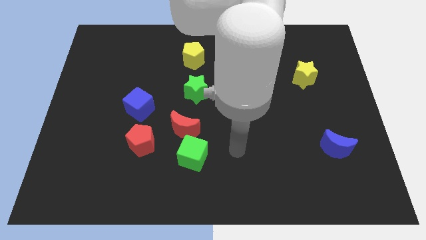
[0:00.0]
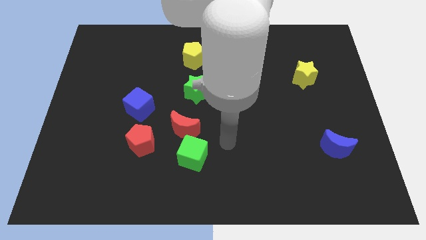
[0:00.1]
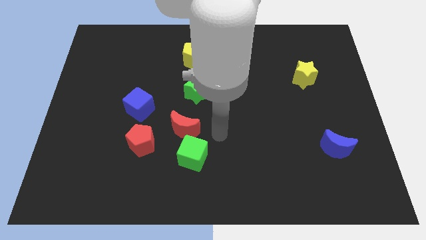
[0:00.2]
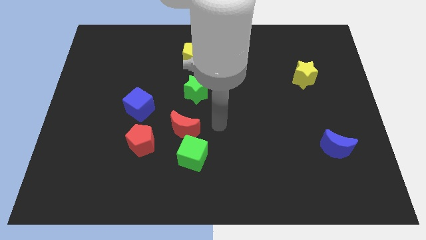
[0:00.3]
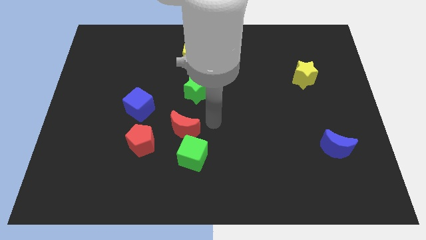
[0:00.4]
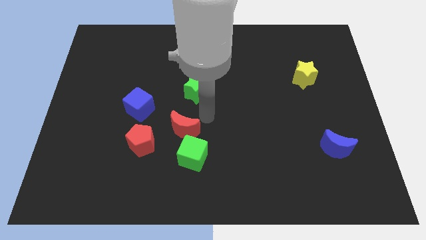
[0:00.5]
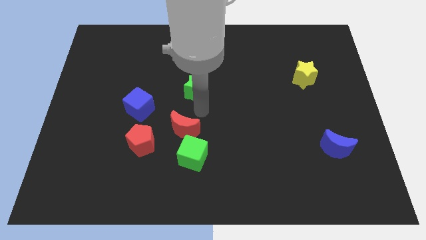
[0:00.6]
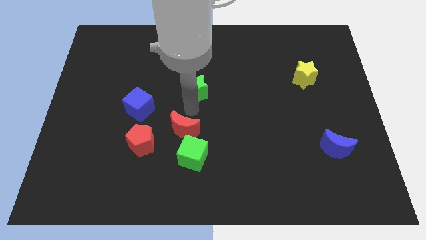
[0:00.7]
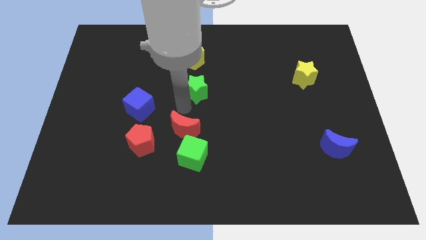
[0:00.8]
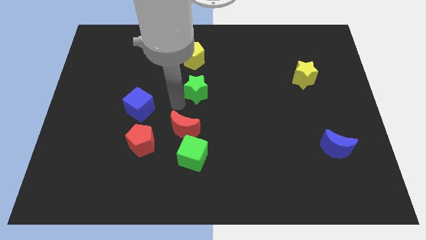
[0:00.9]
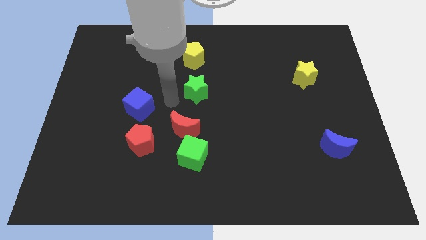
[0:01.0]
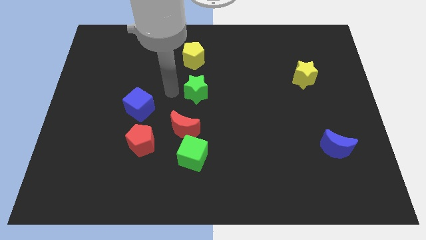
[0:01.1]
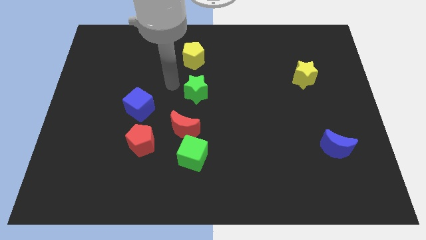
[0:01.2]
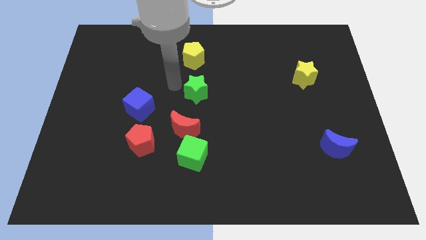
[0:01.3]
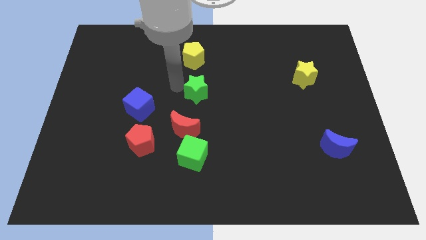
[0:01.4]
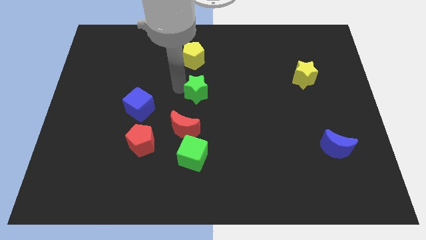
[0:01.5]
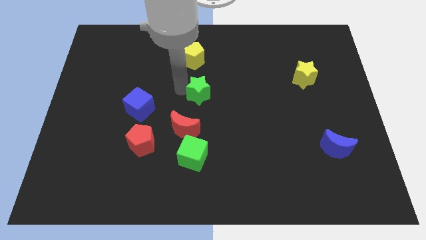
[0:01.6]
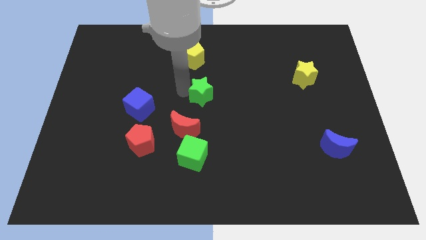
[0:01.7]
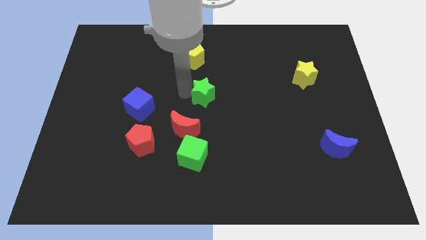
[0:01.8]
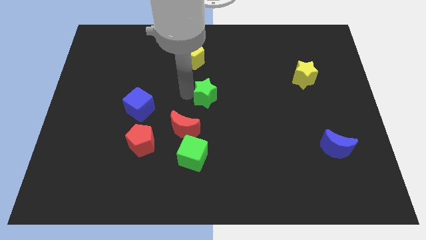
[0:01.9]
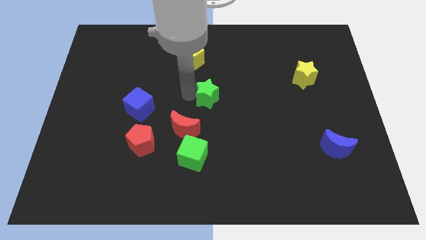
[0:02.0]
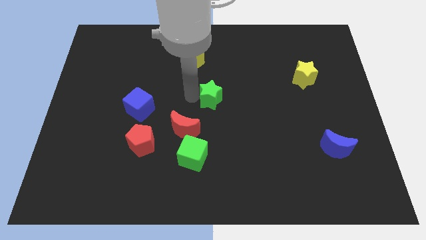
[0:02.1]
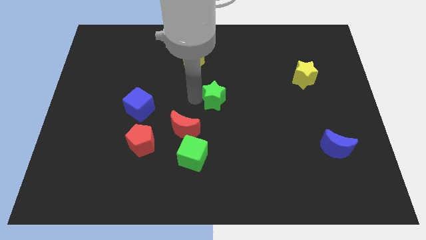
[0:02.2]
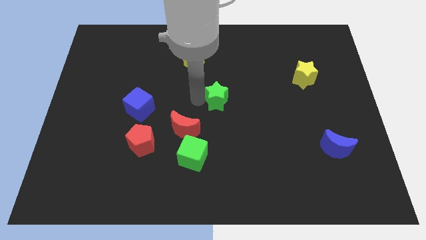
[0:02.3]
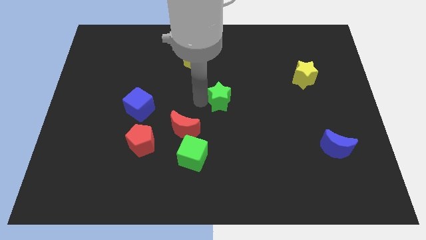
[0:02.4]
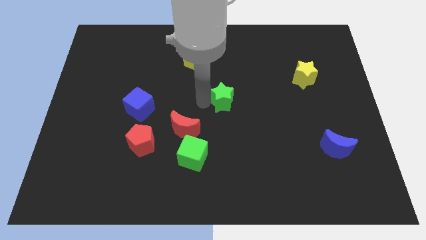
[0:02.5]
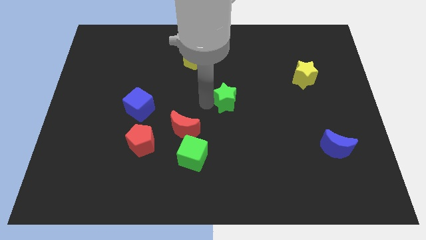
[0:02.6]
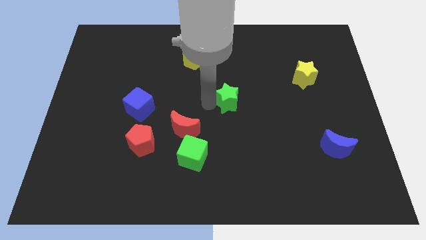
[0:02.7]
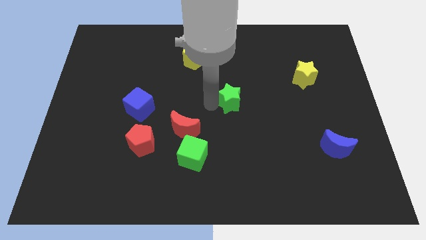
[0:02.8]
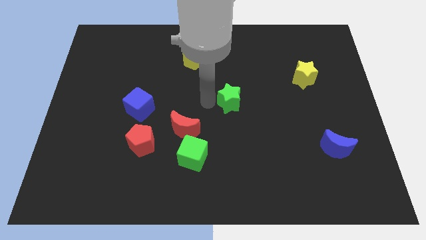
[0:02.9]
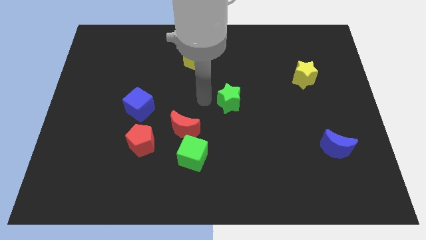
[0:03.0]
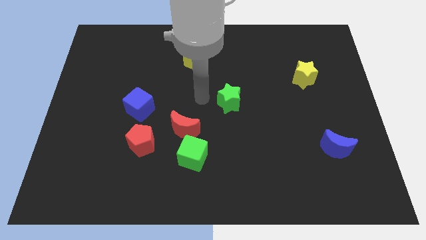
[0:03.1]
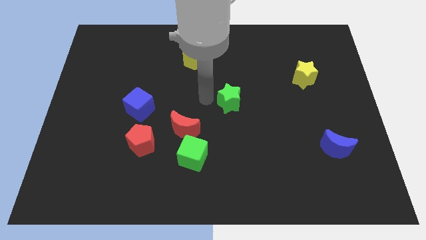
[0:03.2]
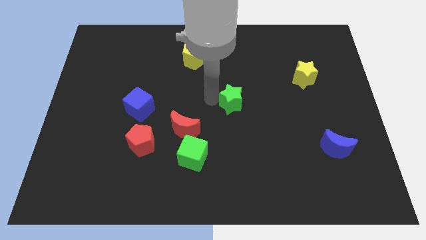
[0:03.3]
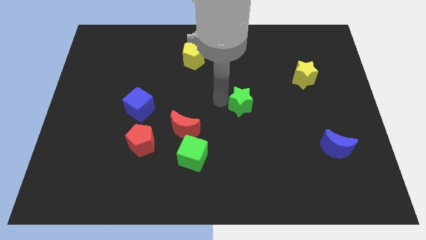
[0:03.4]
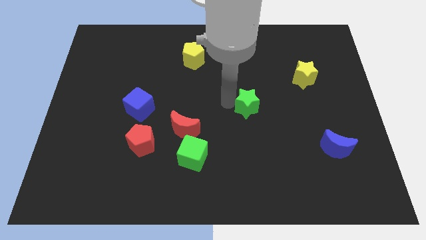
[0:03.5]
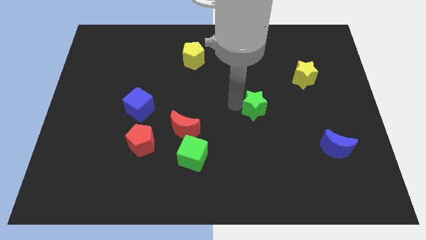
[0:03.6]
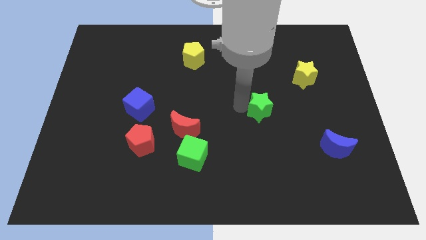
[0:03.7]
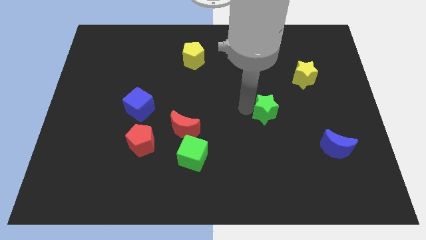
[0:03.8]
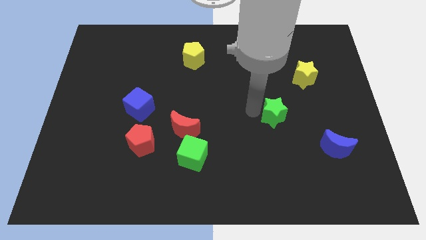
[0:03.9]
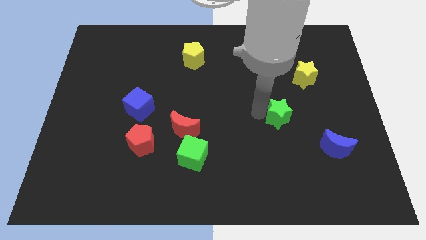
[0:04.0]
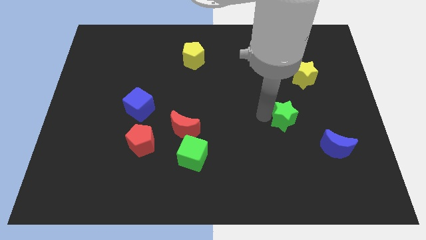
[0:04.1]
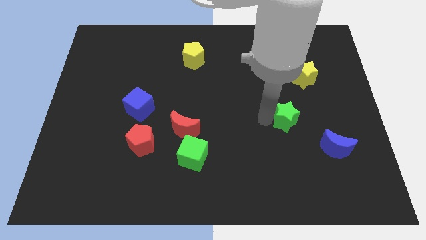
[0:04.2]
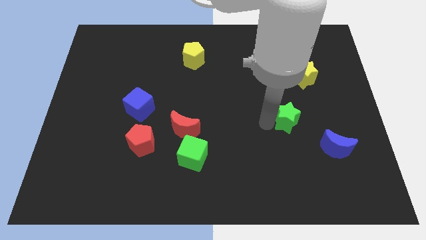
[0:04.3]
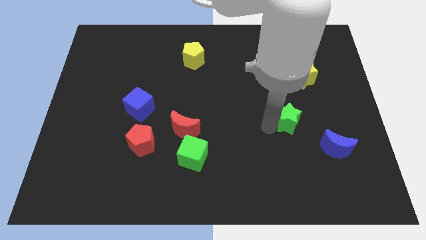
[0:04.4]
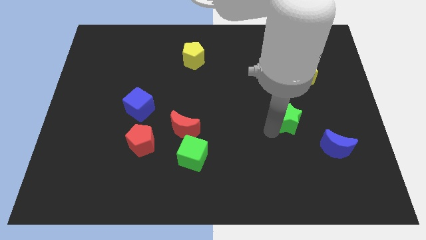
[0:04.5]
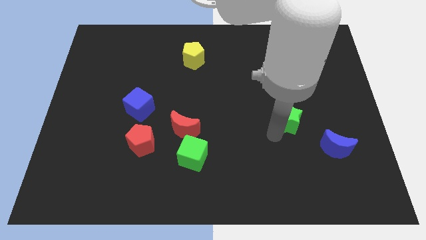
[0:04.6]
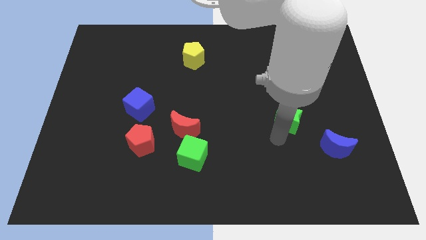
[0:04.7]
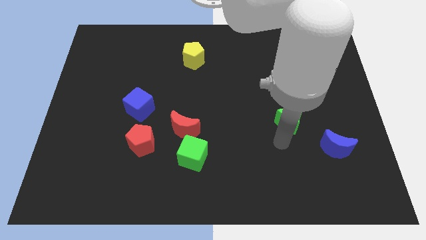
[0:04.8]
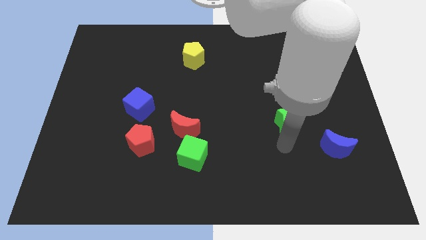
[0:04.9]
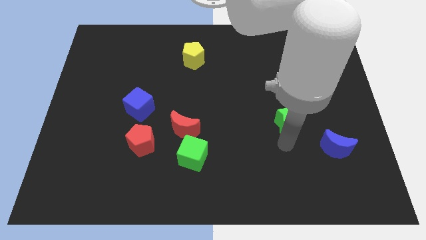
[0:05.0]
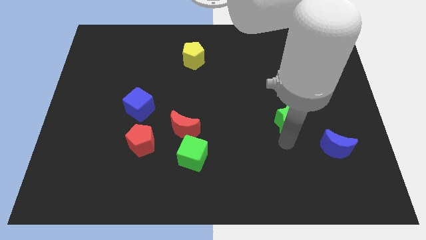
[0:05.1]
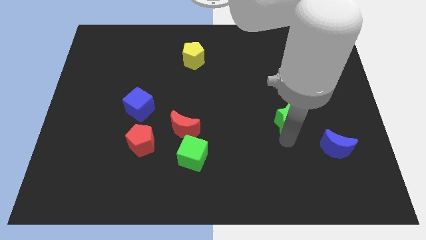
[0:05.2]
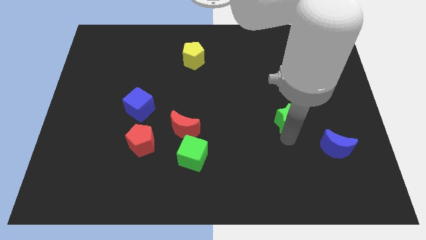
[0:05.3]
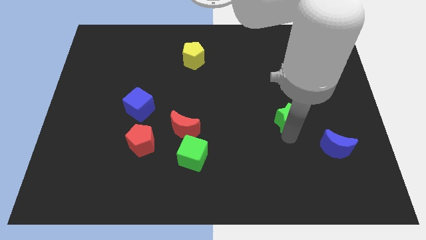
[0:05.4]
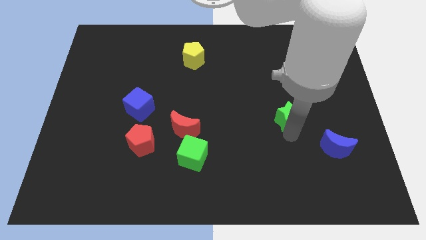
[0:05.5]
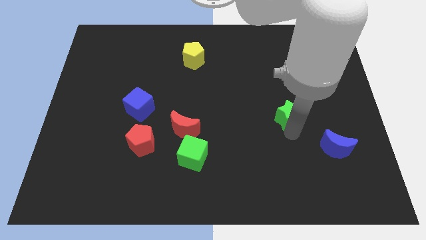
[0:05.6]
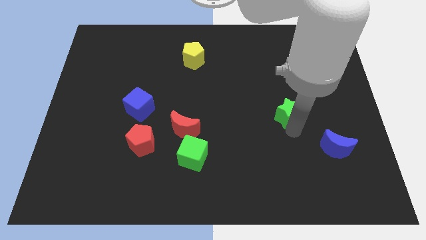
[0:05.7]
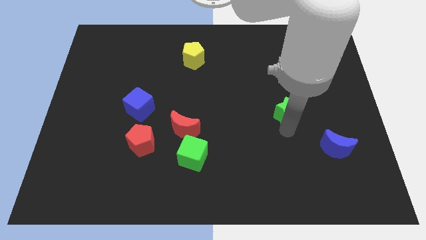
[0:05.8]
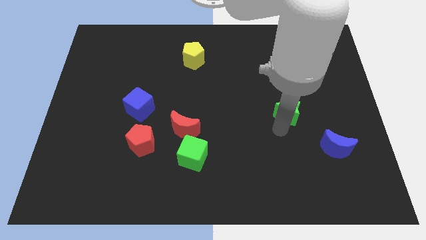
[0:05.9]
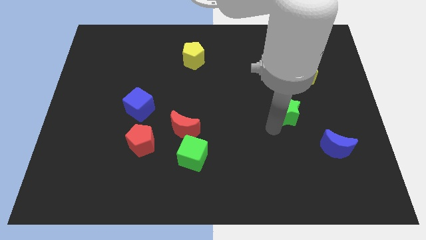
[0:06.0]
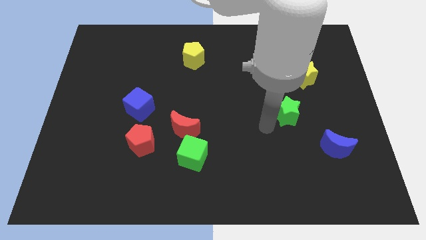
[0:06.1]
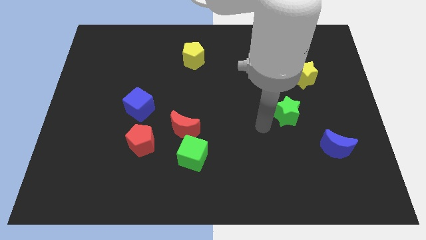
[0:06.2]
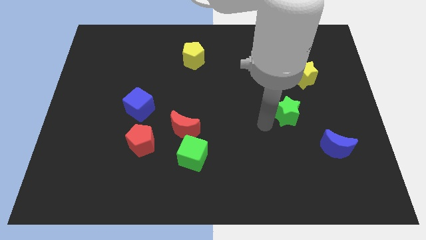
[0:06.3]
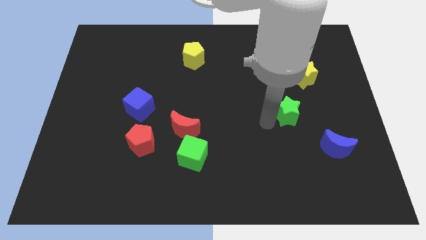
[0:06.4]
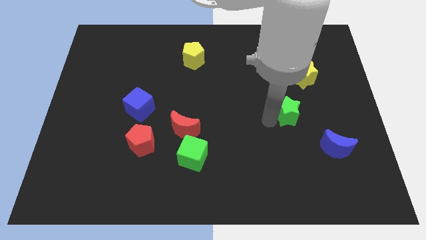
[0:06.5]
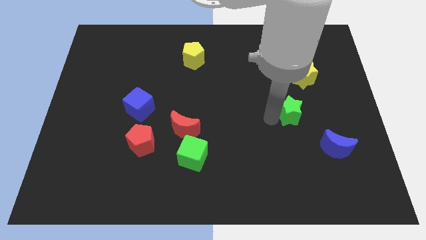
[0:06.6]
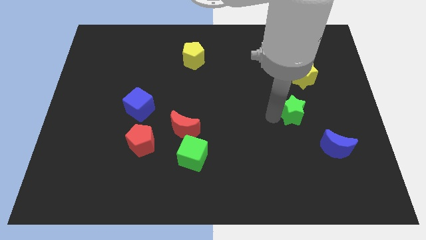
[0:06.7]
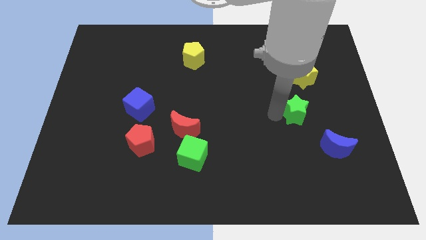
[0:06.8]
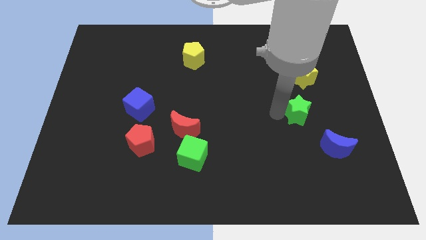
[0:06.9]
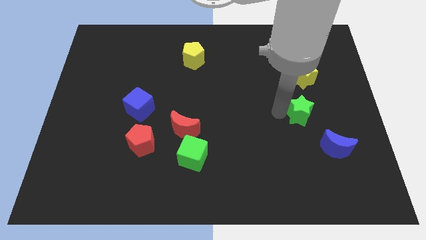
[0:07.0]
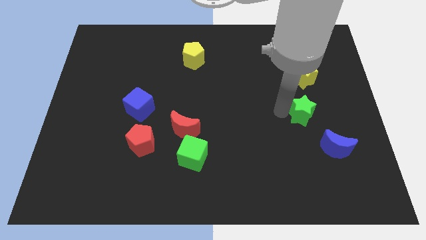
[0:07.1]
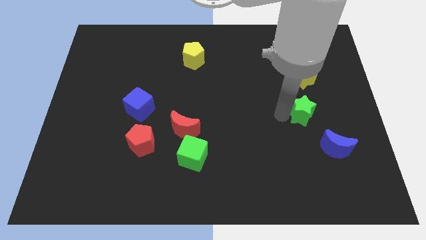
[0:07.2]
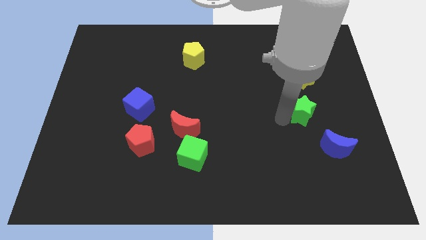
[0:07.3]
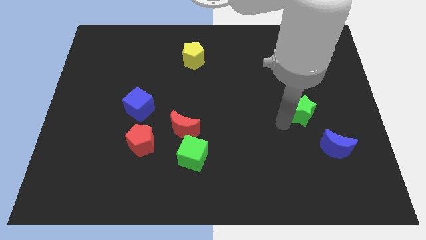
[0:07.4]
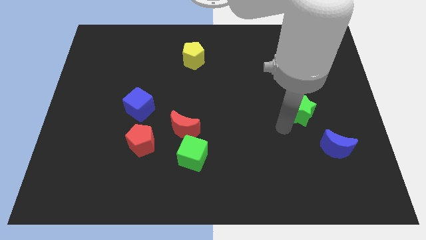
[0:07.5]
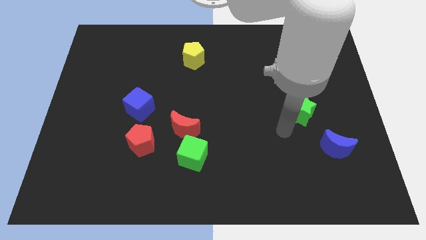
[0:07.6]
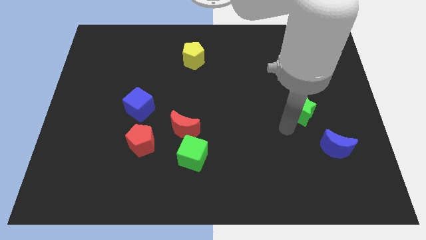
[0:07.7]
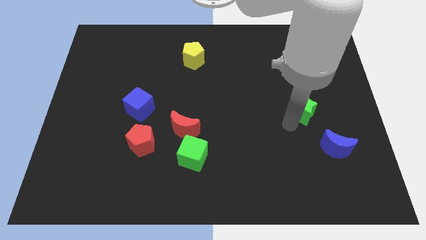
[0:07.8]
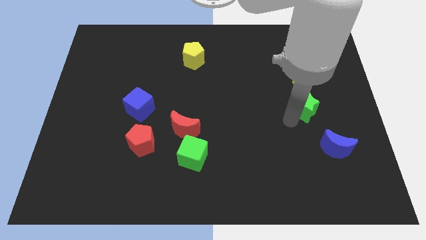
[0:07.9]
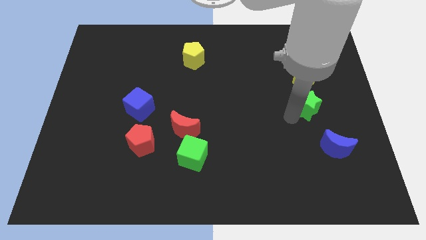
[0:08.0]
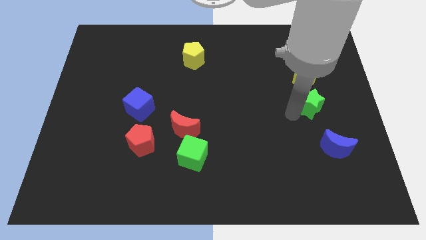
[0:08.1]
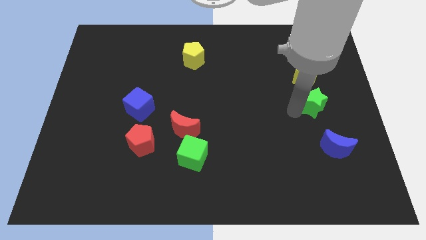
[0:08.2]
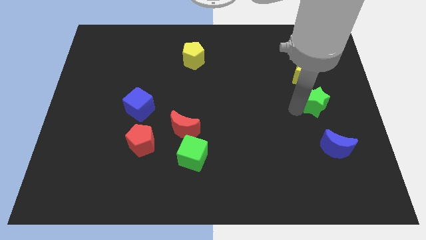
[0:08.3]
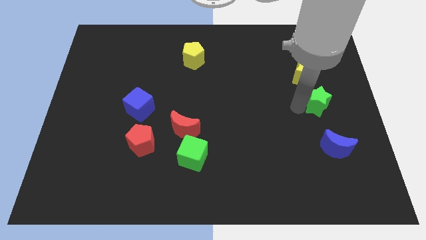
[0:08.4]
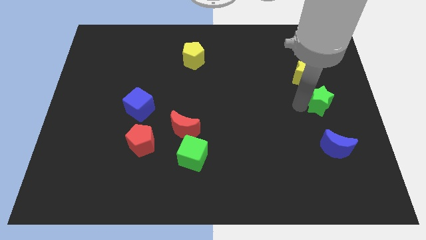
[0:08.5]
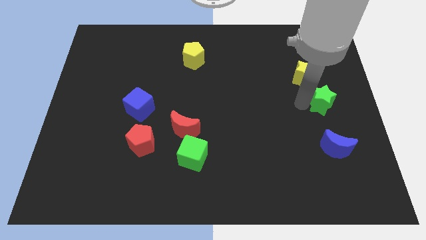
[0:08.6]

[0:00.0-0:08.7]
move the green star to the right side of the board
